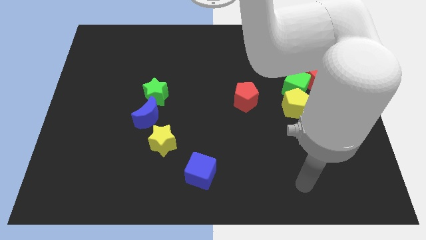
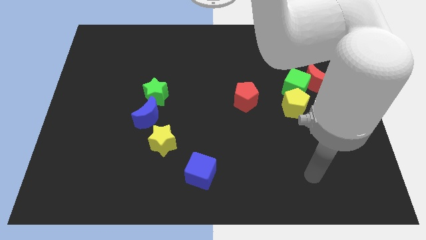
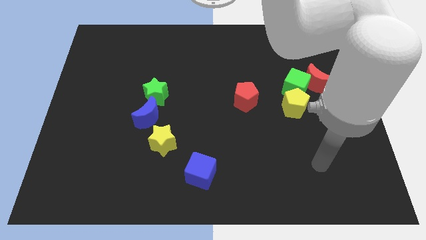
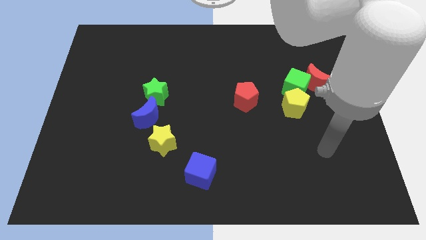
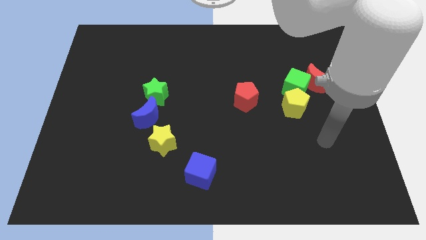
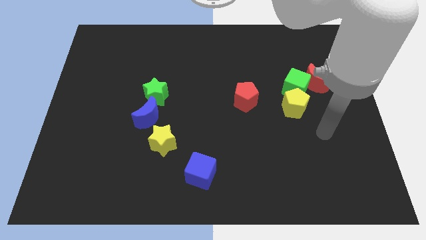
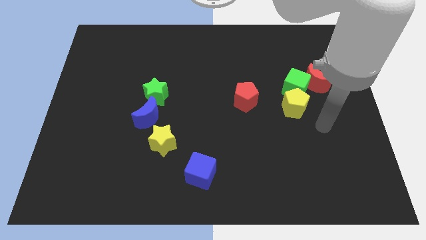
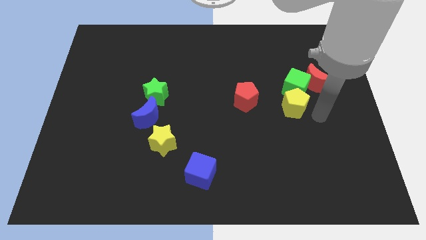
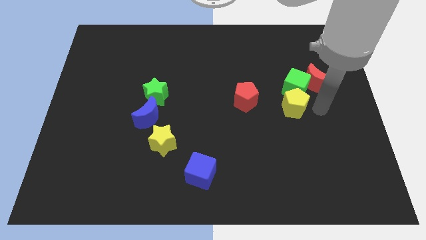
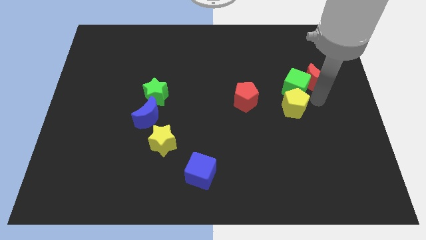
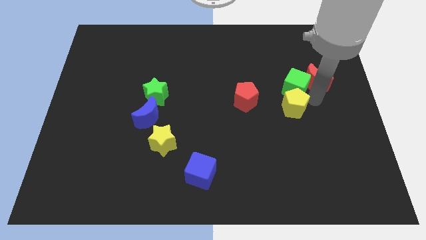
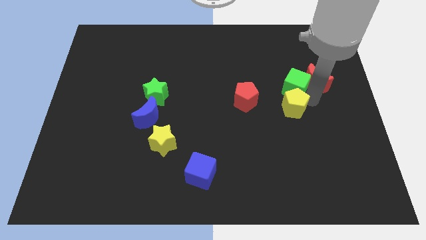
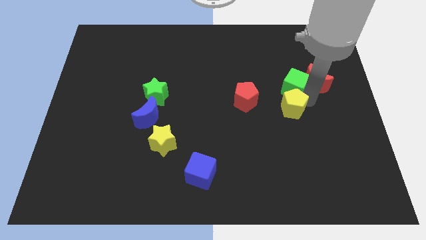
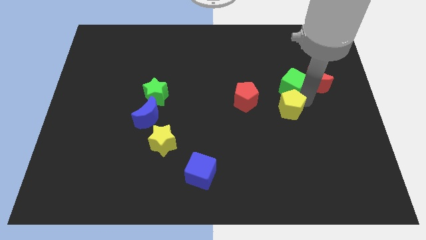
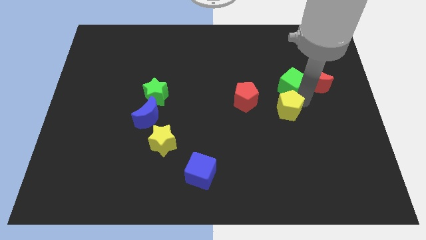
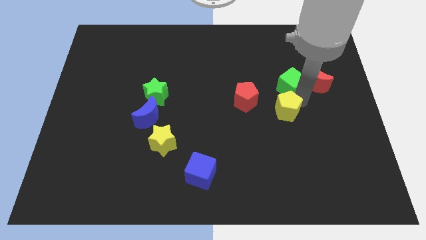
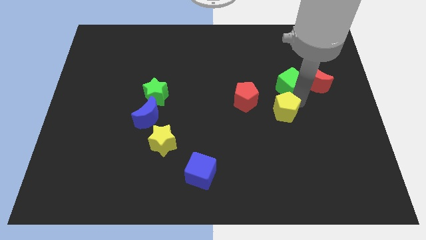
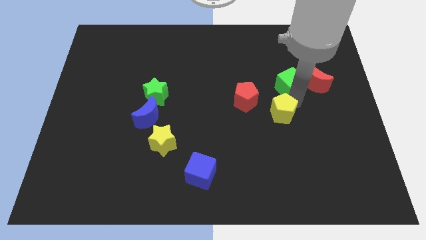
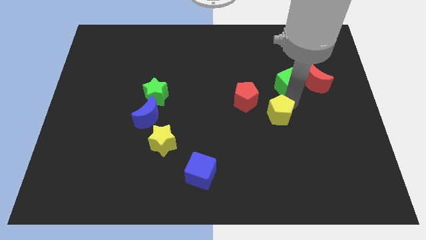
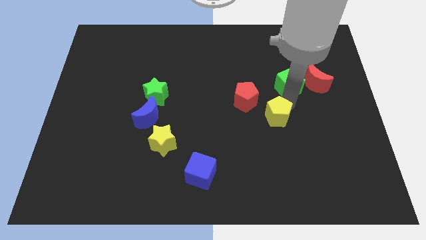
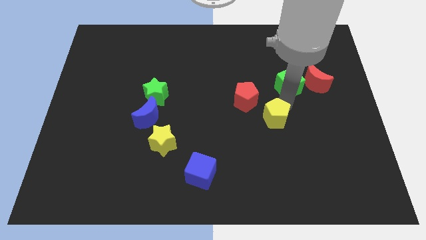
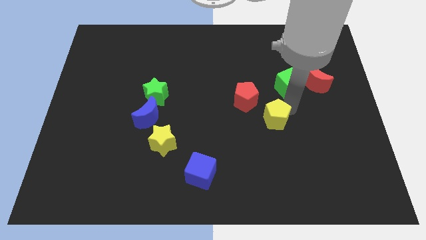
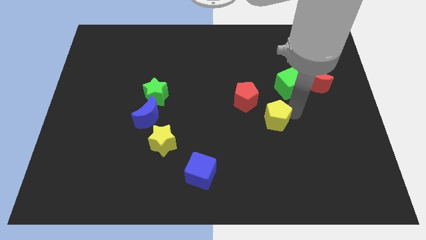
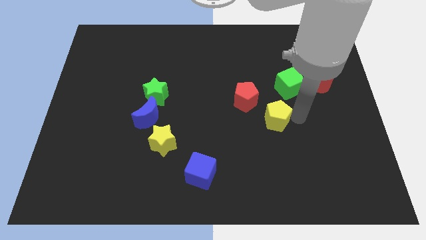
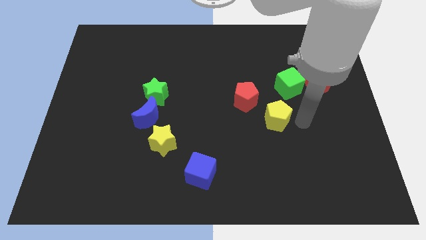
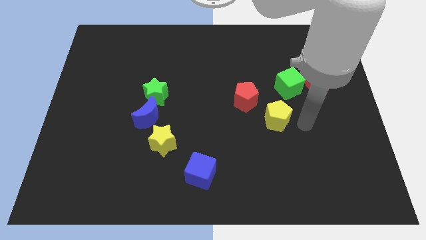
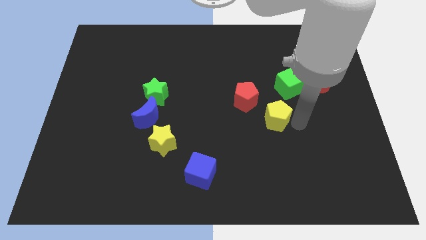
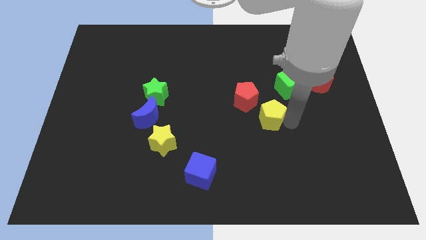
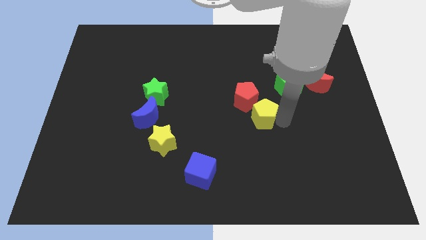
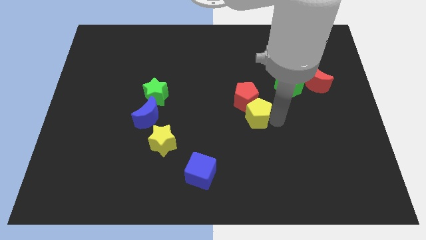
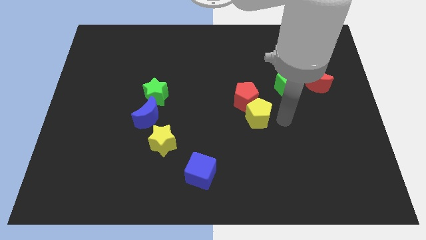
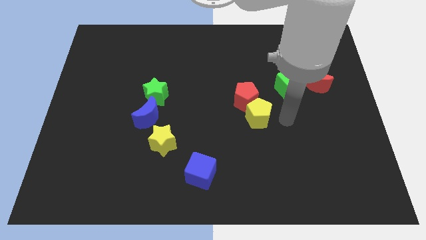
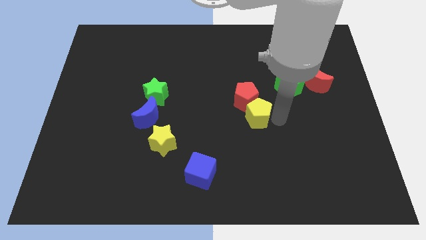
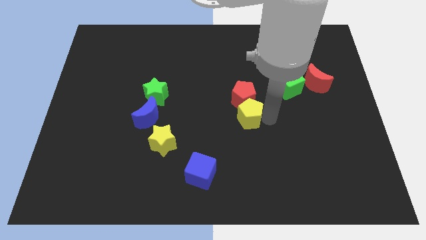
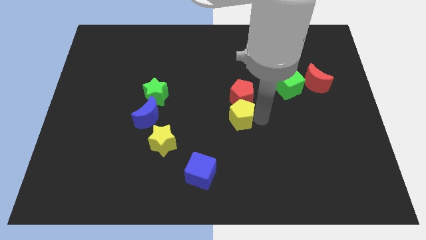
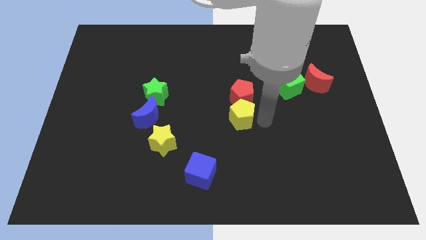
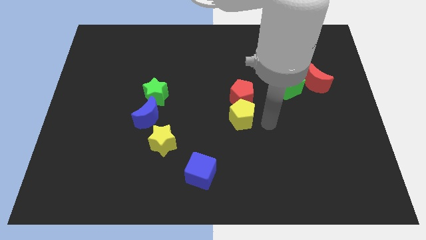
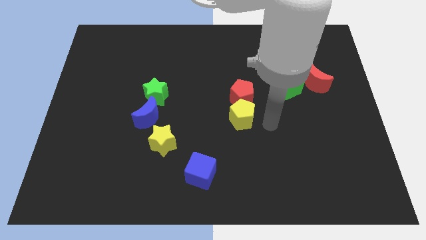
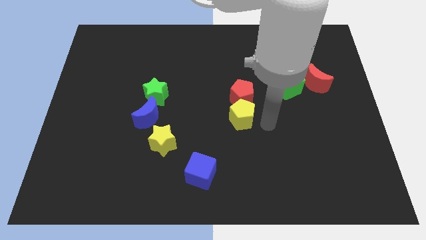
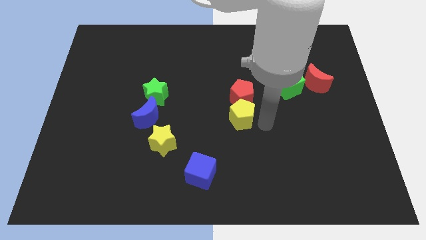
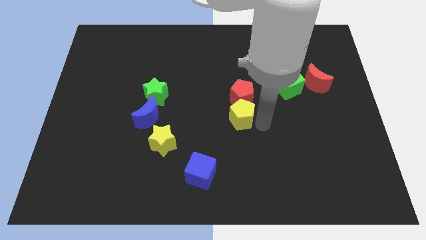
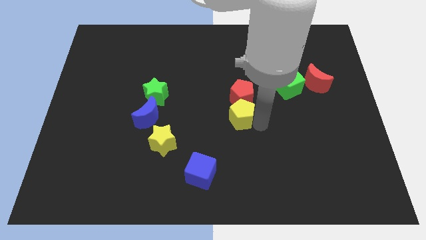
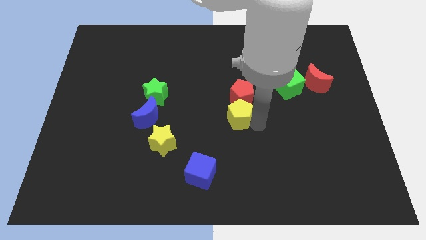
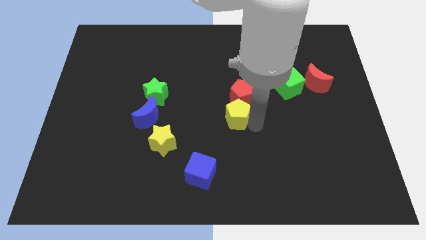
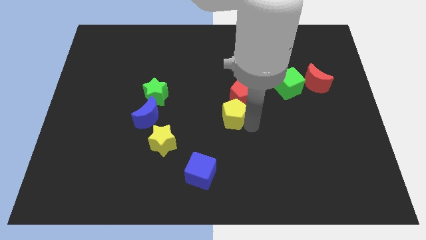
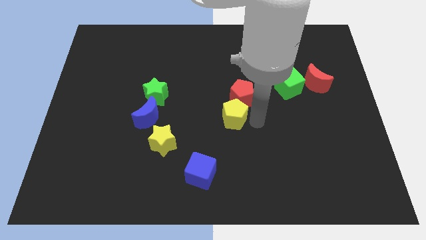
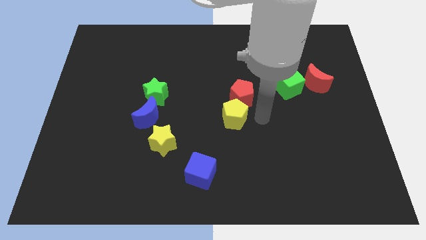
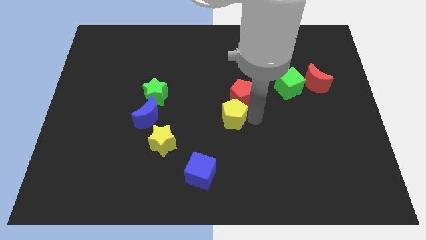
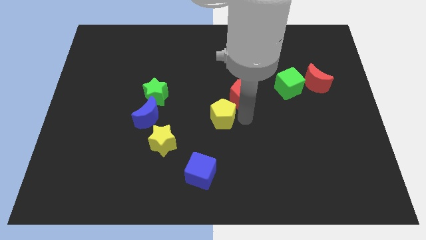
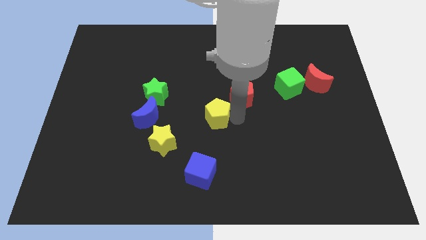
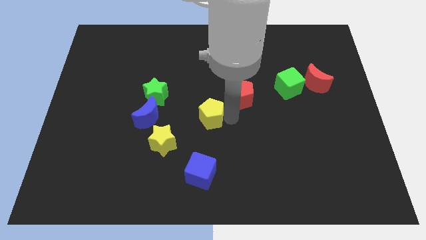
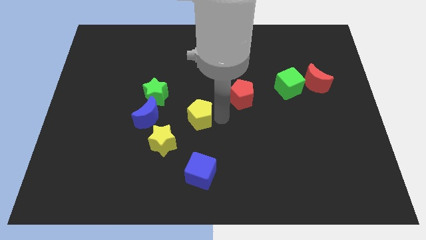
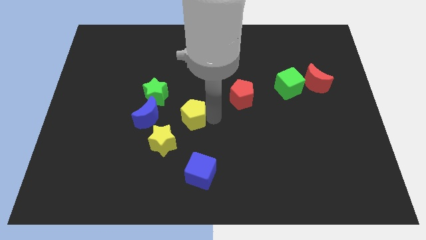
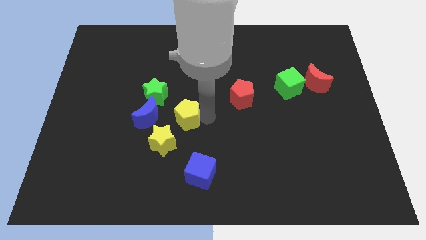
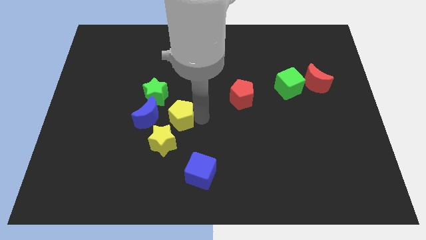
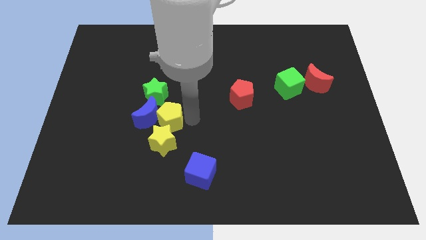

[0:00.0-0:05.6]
move the yellow pentagon towards the blue moon

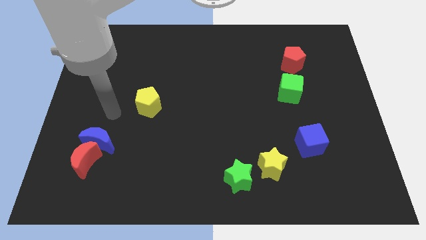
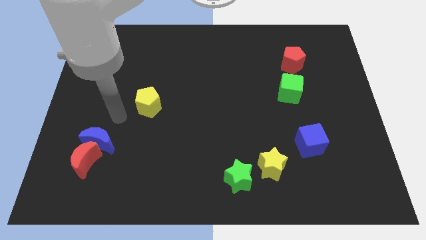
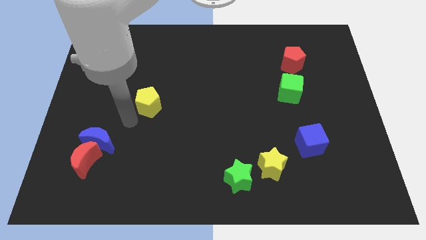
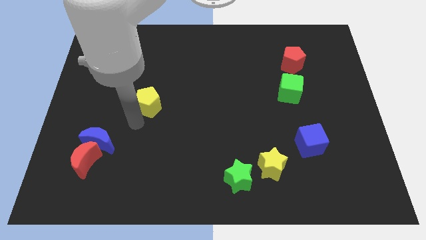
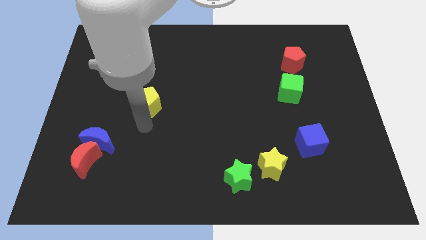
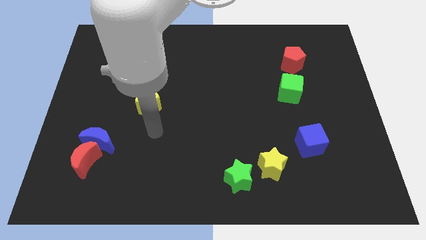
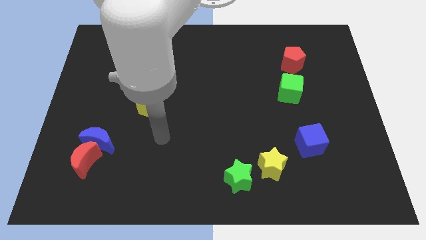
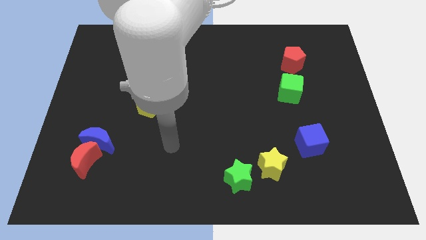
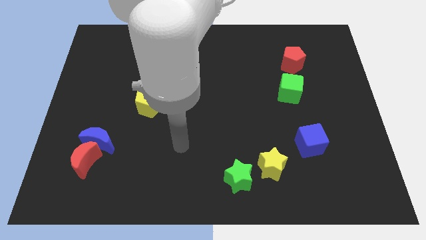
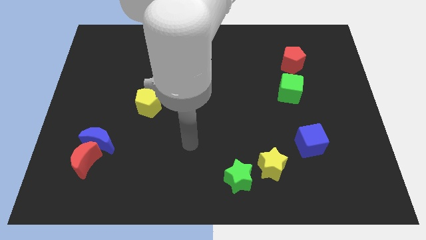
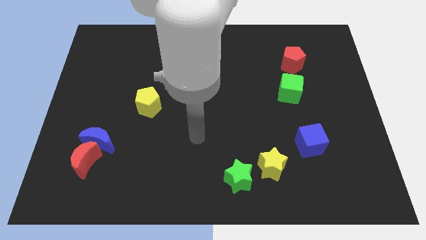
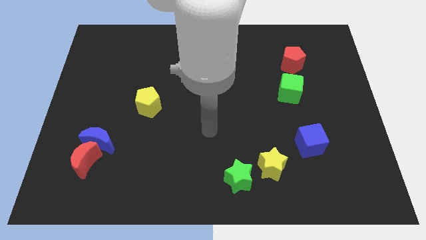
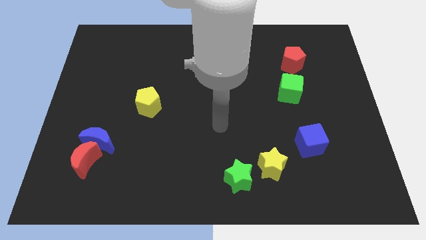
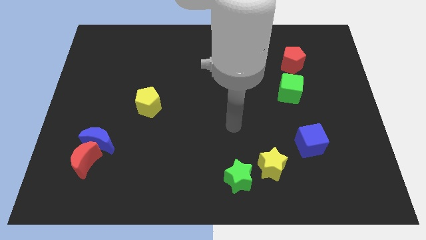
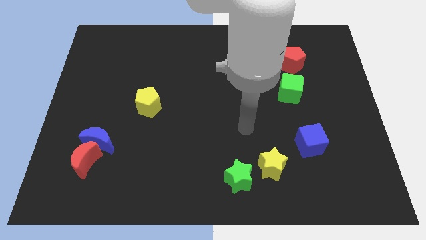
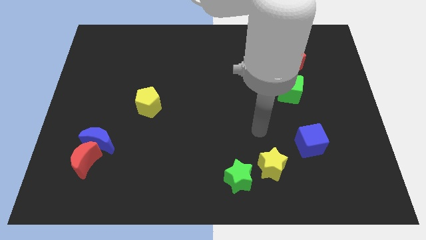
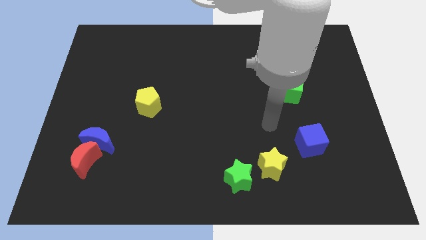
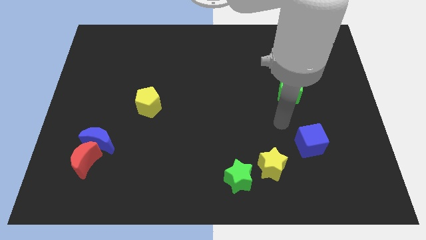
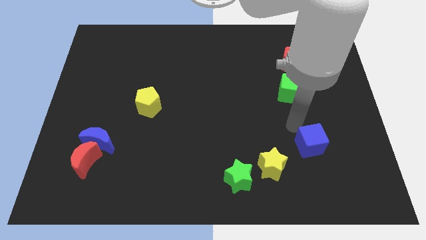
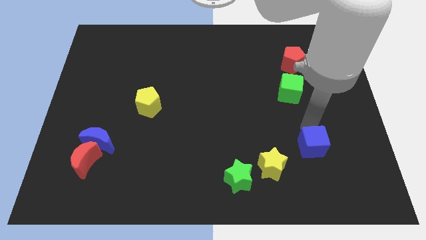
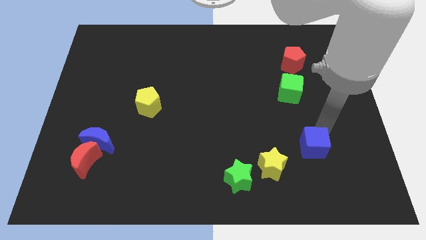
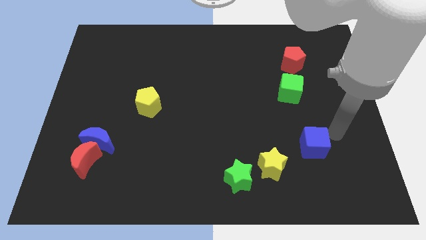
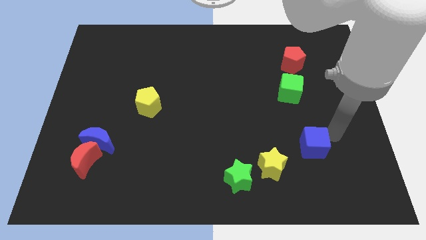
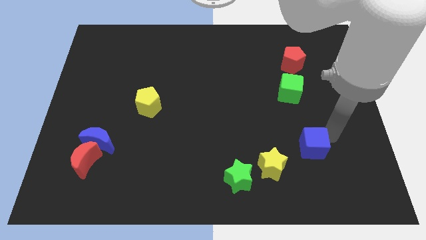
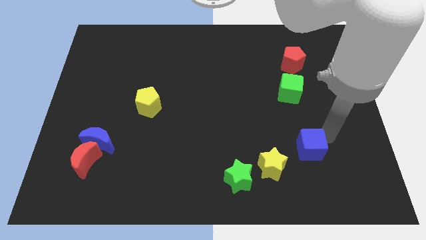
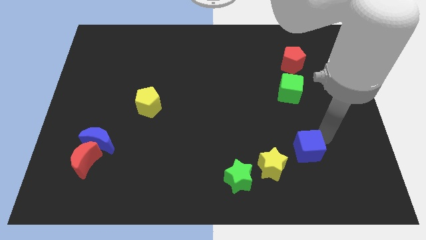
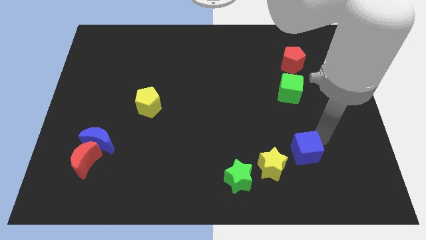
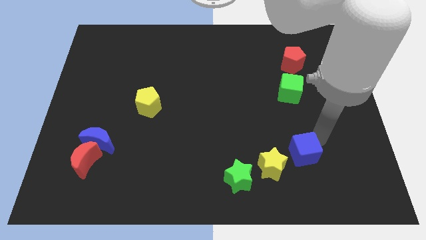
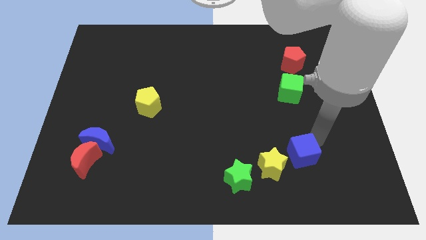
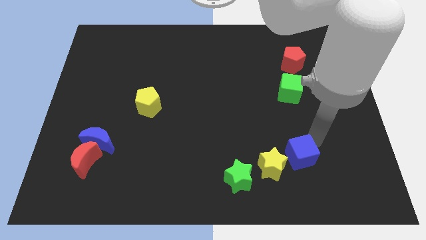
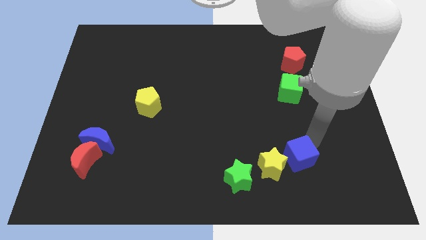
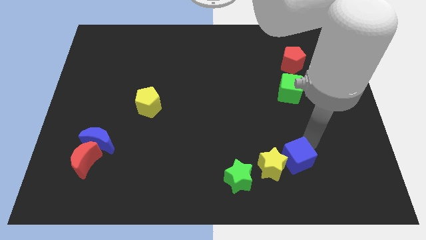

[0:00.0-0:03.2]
move the blue cube to the yellow star
